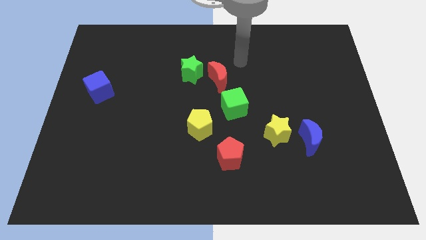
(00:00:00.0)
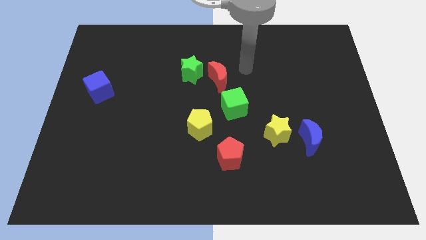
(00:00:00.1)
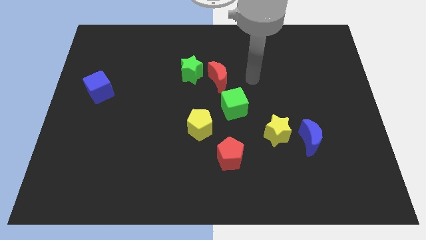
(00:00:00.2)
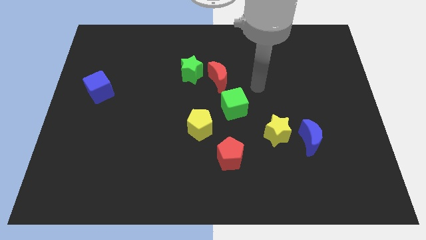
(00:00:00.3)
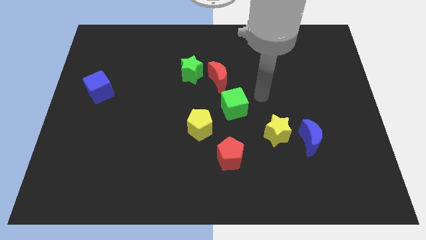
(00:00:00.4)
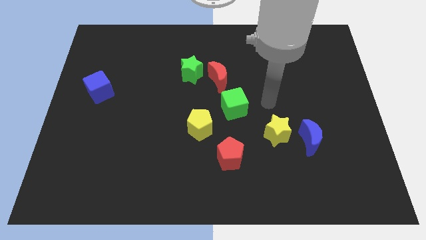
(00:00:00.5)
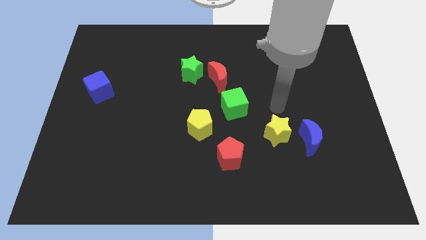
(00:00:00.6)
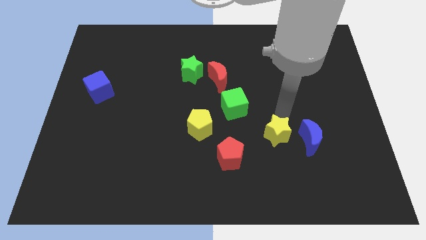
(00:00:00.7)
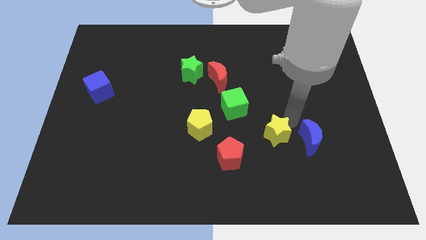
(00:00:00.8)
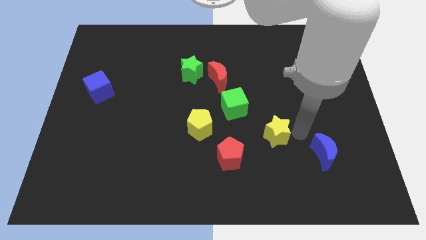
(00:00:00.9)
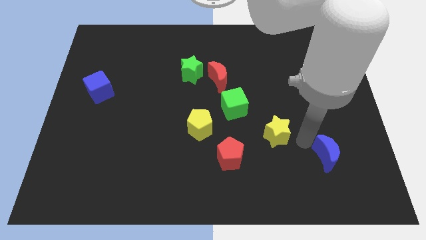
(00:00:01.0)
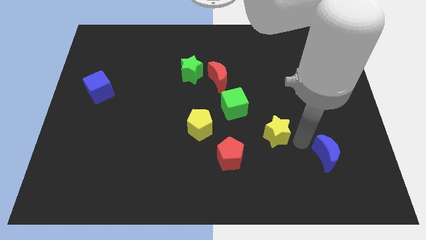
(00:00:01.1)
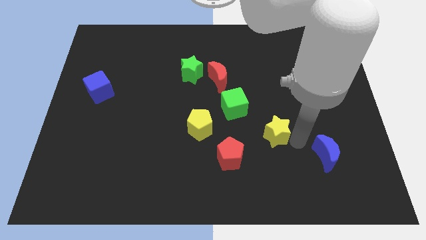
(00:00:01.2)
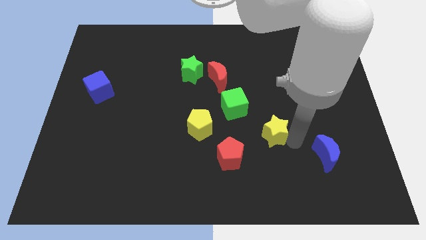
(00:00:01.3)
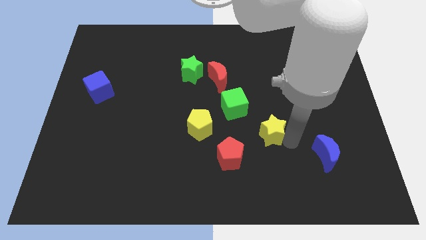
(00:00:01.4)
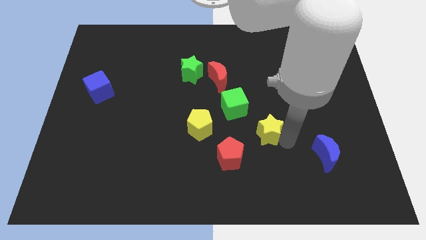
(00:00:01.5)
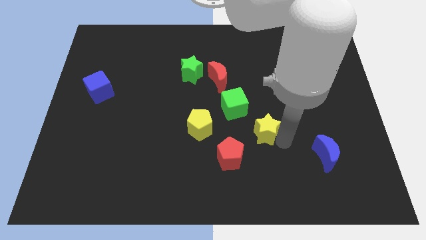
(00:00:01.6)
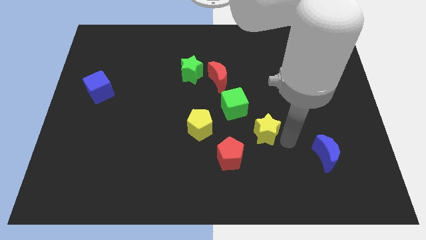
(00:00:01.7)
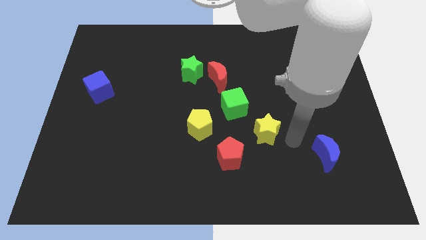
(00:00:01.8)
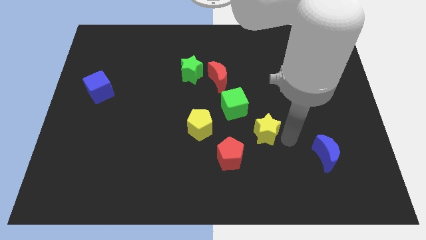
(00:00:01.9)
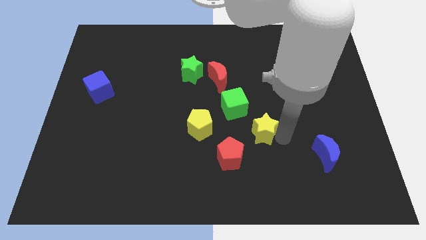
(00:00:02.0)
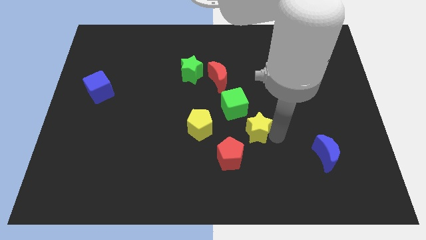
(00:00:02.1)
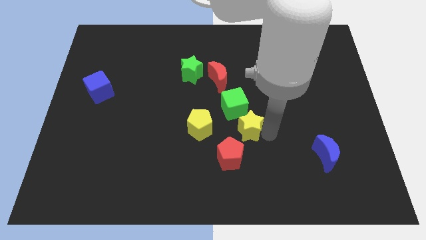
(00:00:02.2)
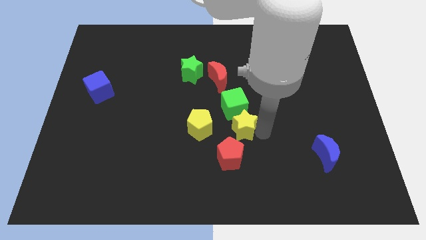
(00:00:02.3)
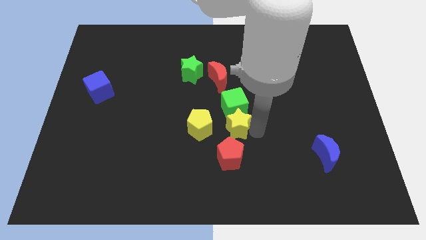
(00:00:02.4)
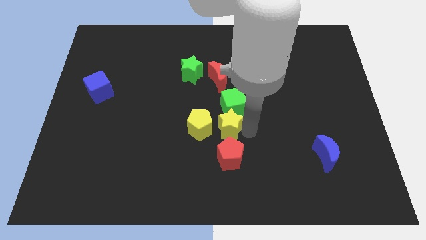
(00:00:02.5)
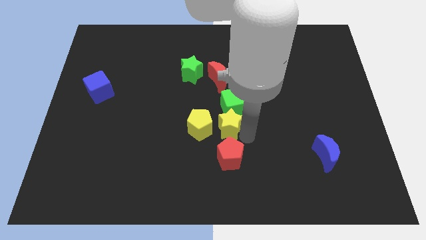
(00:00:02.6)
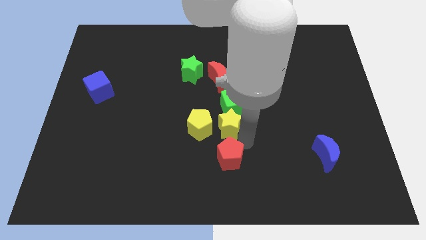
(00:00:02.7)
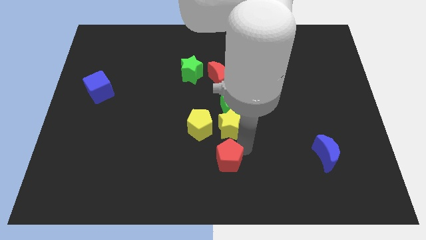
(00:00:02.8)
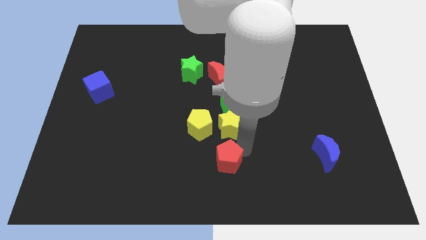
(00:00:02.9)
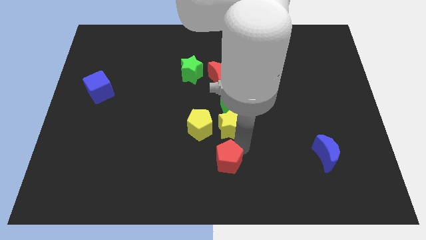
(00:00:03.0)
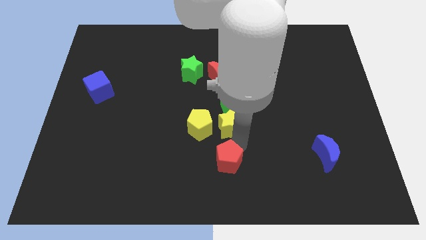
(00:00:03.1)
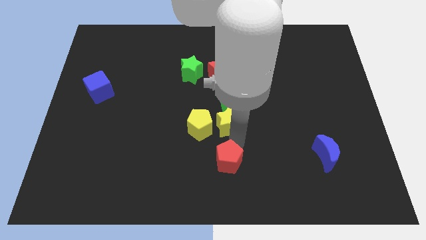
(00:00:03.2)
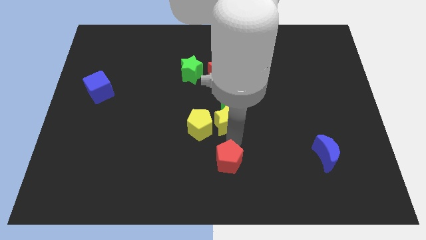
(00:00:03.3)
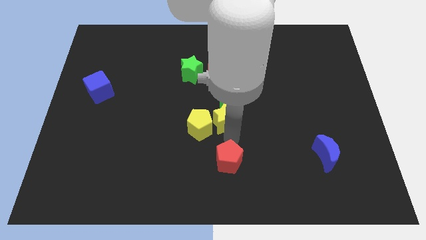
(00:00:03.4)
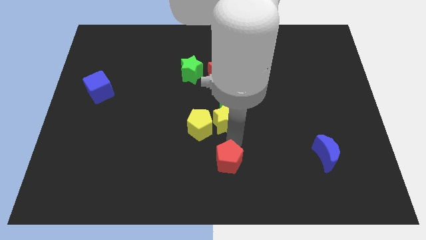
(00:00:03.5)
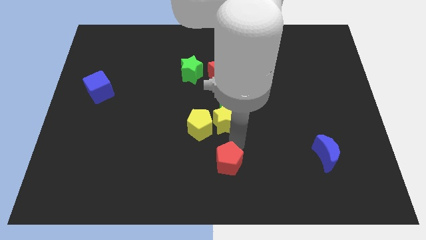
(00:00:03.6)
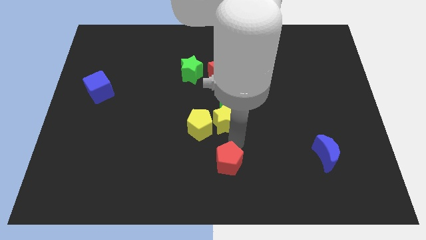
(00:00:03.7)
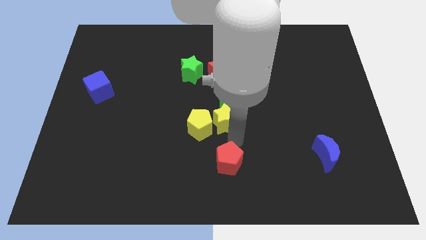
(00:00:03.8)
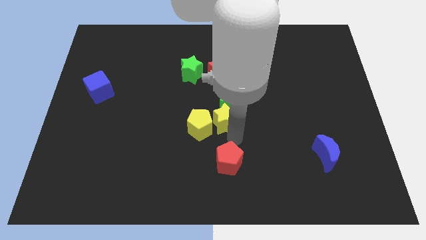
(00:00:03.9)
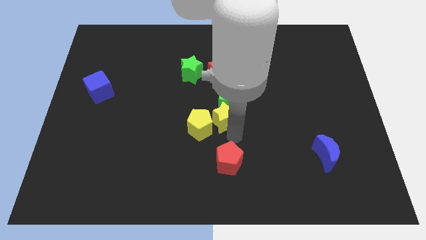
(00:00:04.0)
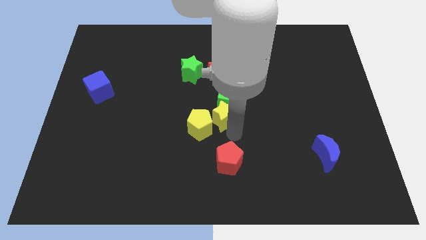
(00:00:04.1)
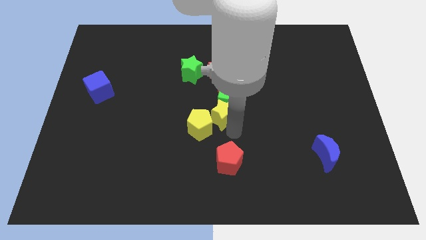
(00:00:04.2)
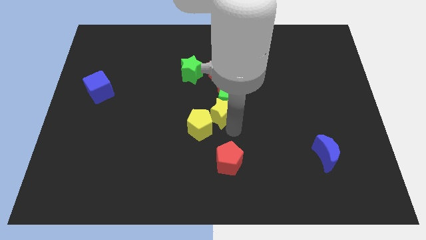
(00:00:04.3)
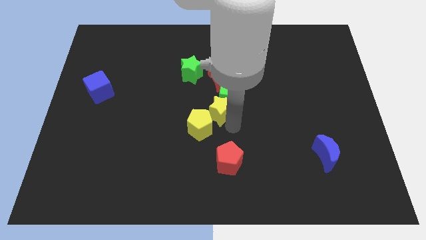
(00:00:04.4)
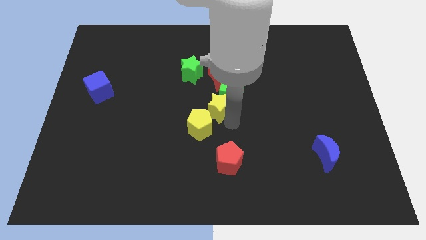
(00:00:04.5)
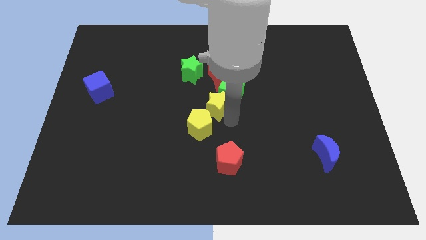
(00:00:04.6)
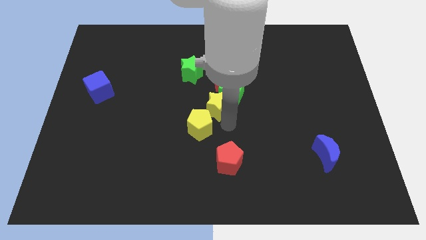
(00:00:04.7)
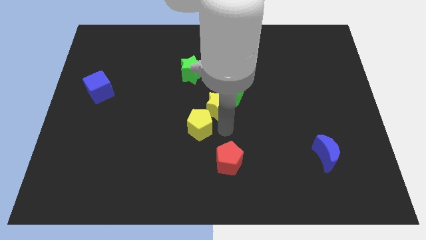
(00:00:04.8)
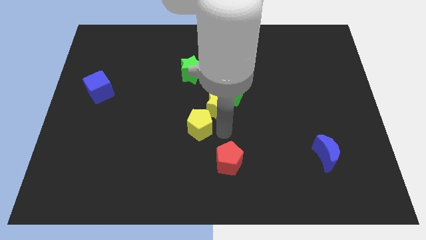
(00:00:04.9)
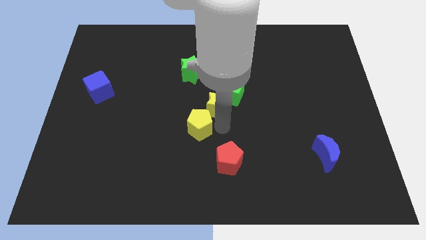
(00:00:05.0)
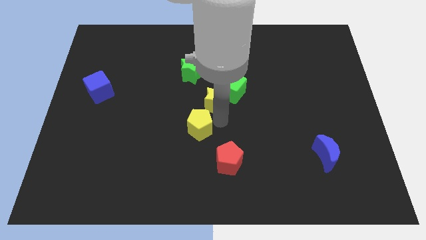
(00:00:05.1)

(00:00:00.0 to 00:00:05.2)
push the yellow star to the bottom right side of the green star

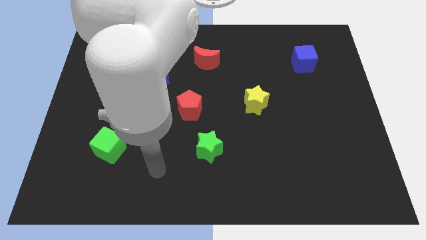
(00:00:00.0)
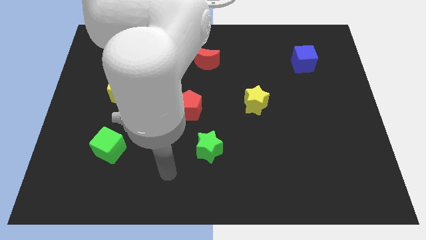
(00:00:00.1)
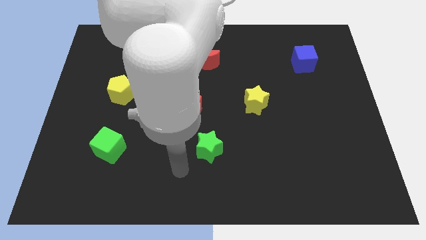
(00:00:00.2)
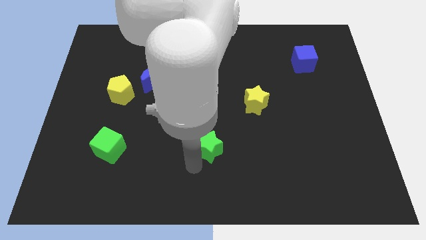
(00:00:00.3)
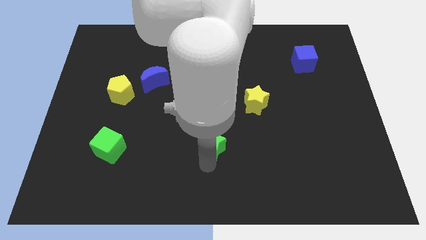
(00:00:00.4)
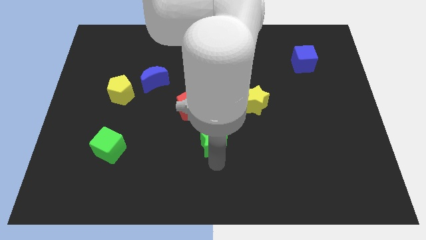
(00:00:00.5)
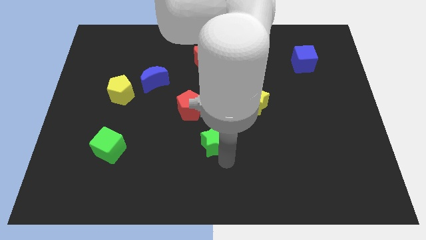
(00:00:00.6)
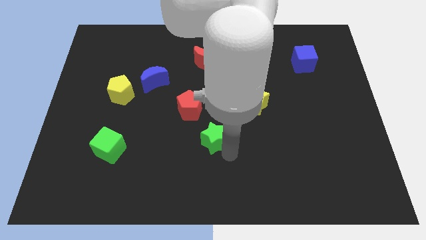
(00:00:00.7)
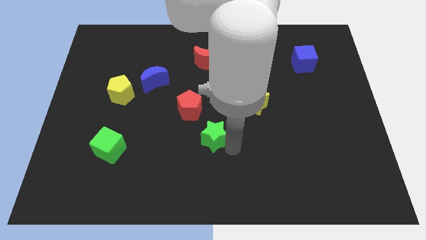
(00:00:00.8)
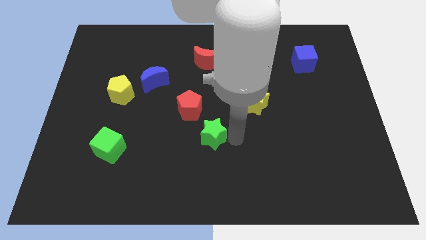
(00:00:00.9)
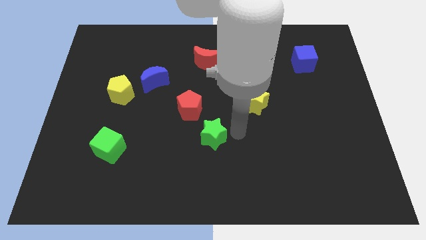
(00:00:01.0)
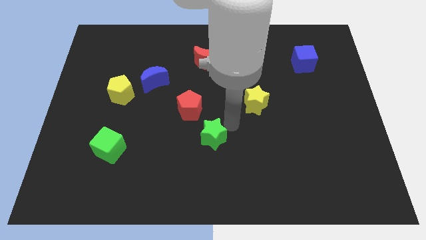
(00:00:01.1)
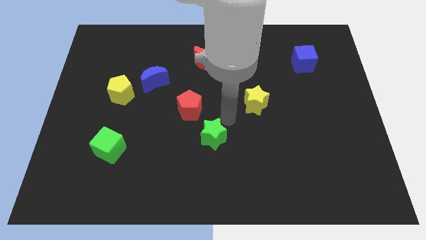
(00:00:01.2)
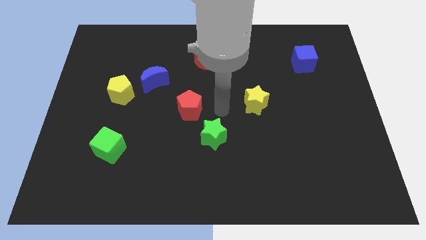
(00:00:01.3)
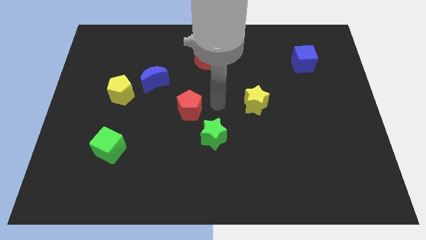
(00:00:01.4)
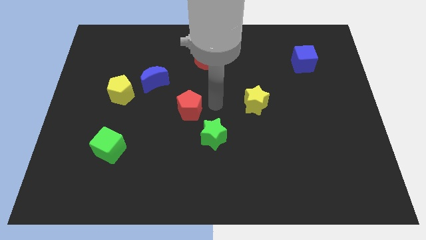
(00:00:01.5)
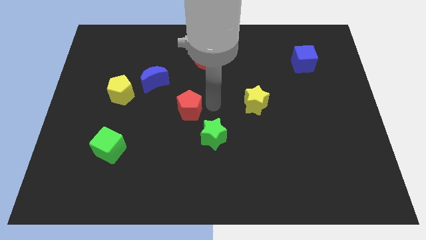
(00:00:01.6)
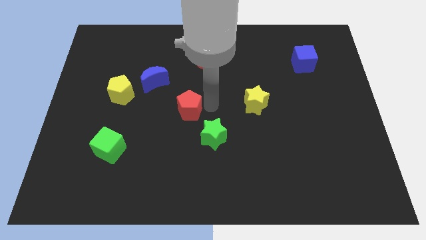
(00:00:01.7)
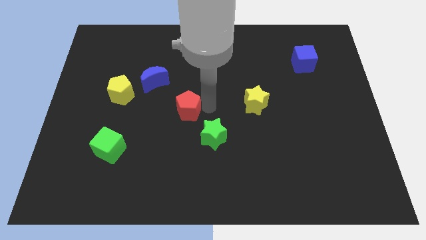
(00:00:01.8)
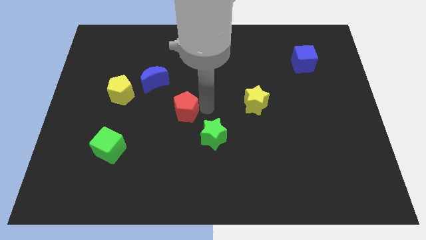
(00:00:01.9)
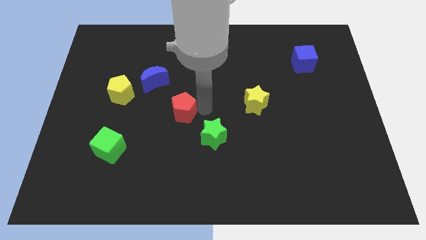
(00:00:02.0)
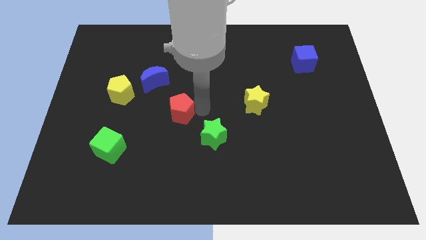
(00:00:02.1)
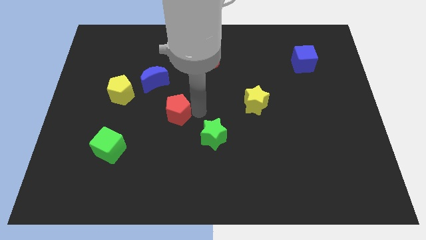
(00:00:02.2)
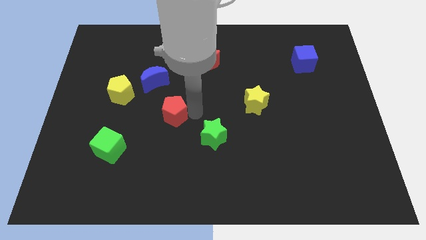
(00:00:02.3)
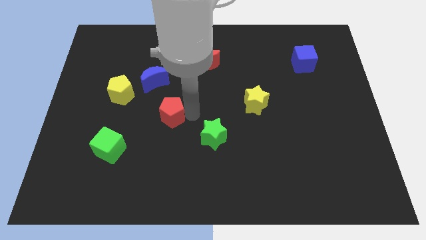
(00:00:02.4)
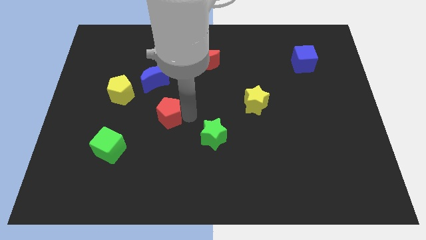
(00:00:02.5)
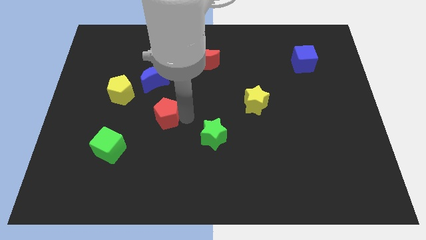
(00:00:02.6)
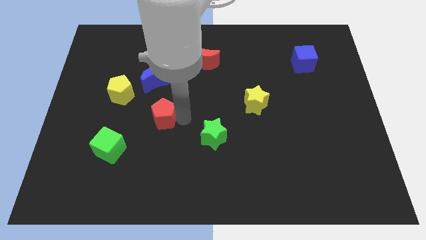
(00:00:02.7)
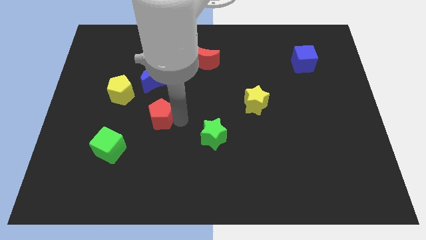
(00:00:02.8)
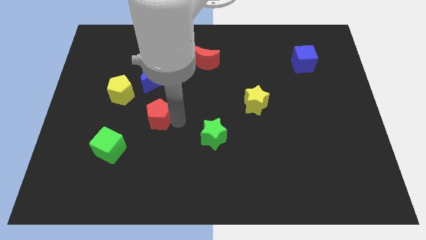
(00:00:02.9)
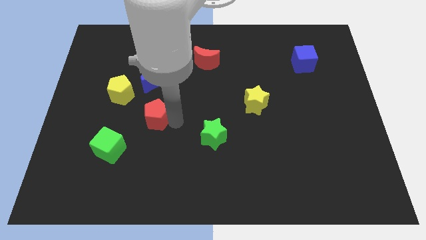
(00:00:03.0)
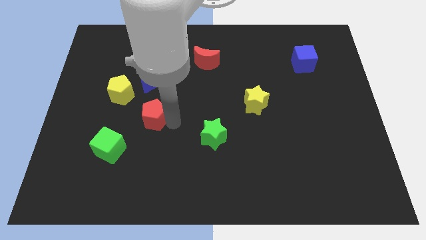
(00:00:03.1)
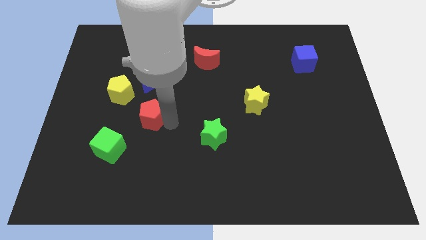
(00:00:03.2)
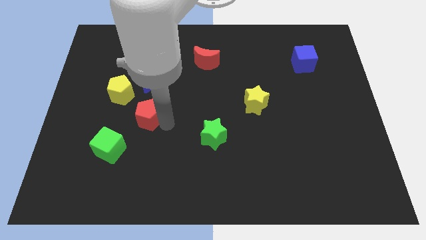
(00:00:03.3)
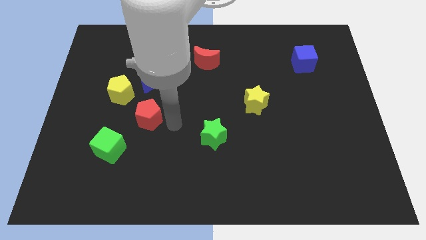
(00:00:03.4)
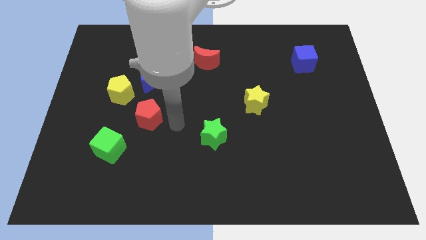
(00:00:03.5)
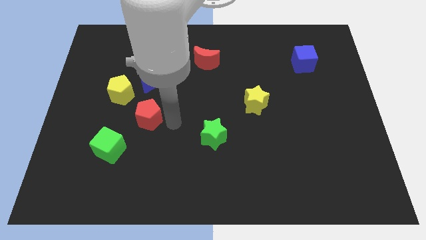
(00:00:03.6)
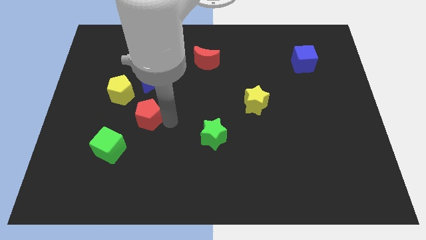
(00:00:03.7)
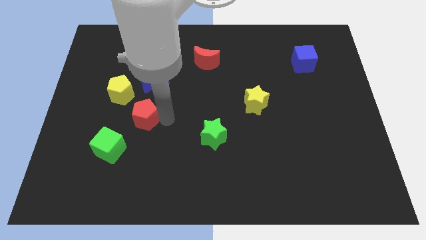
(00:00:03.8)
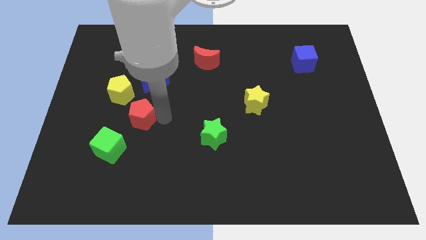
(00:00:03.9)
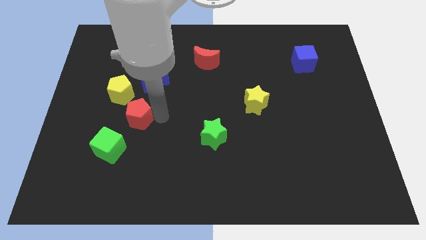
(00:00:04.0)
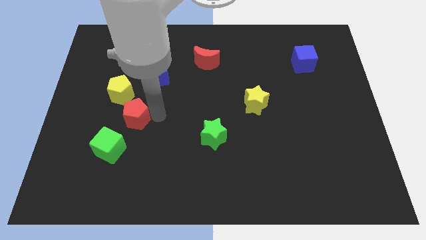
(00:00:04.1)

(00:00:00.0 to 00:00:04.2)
push the red pentagon to the top side of the green cube
